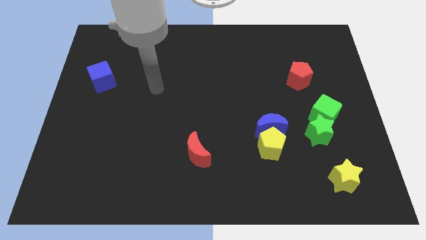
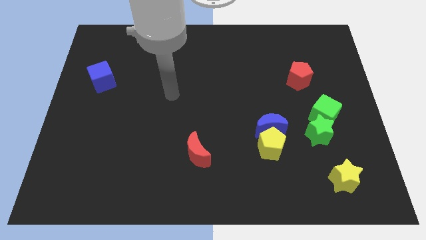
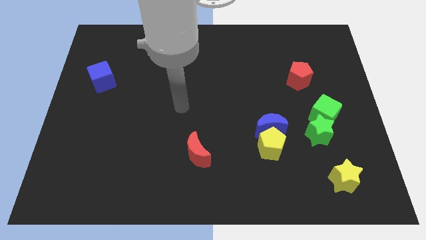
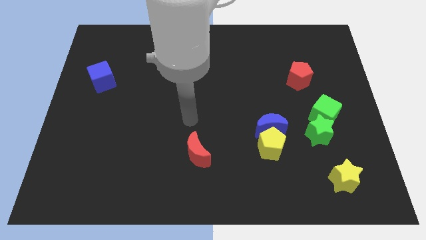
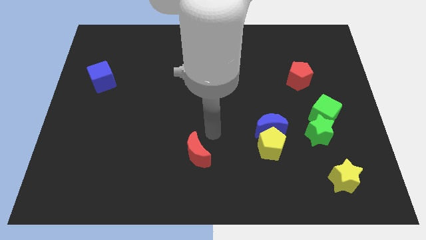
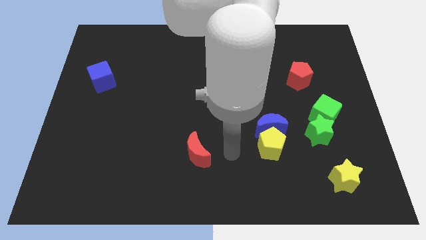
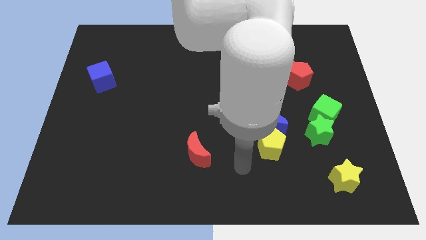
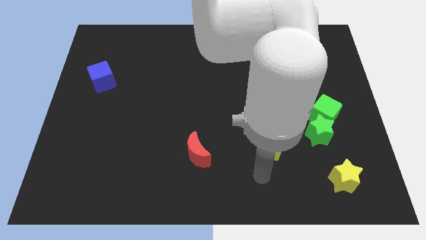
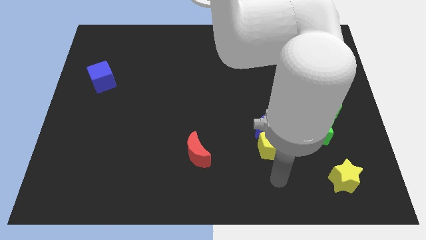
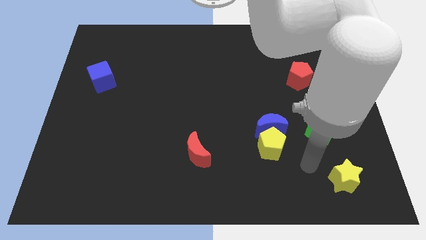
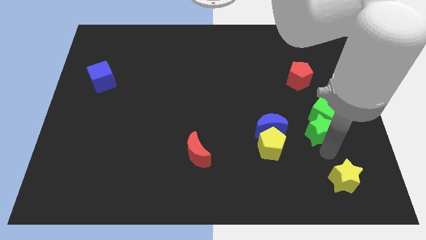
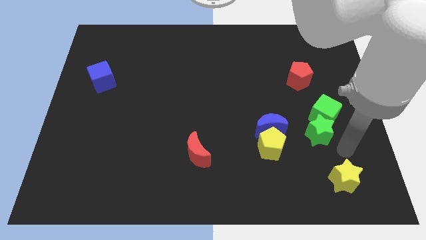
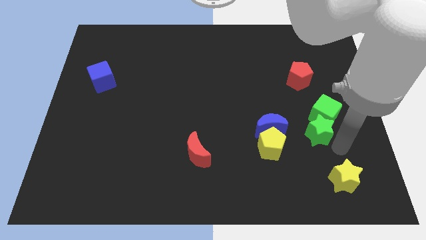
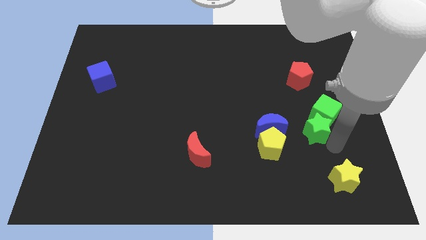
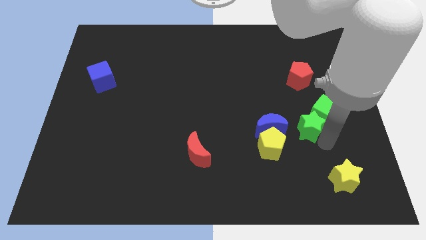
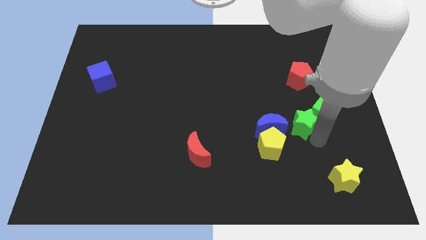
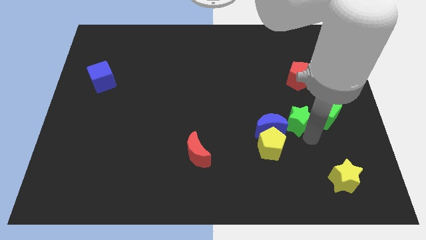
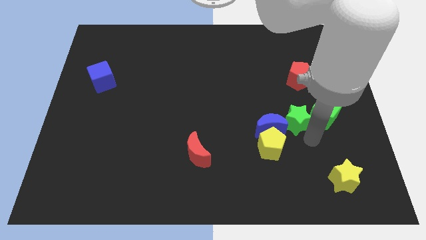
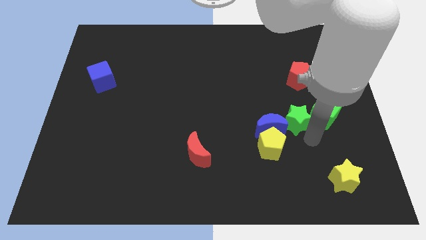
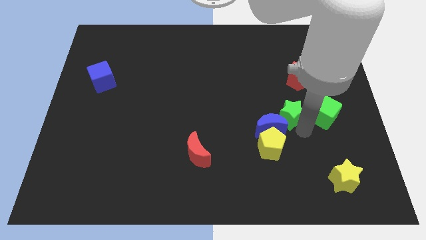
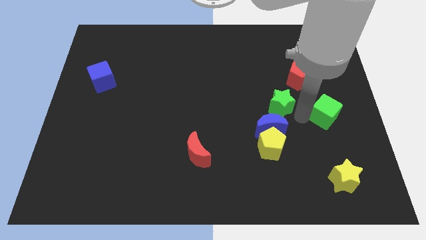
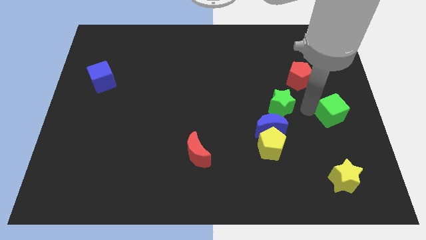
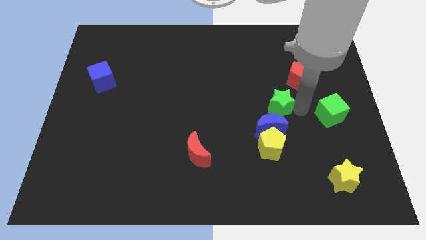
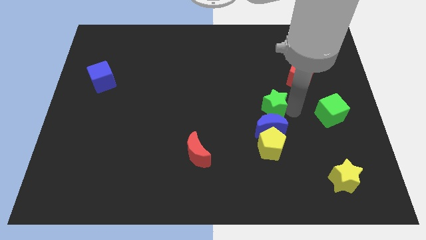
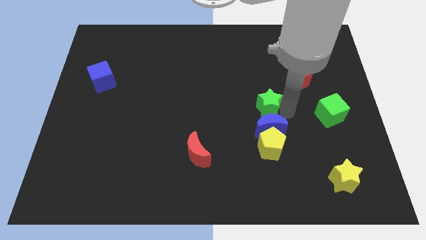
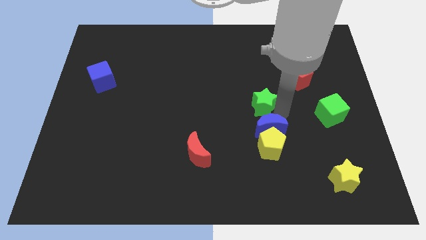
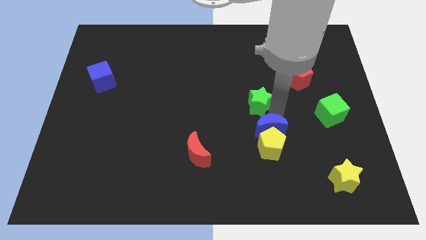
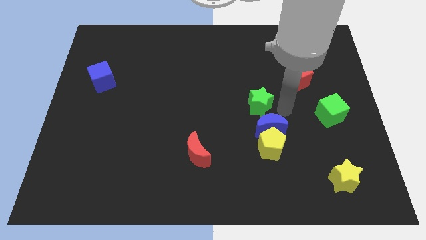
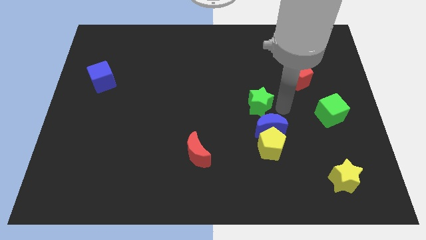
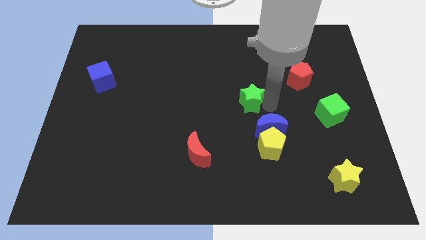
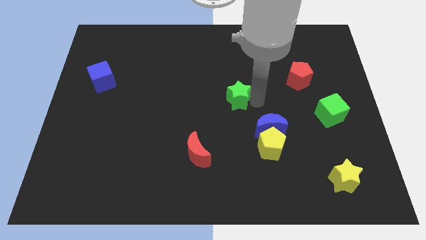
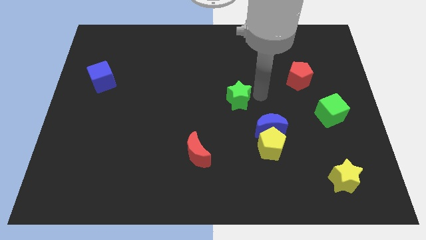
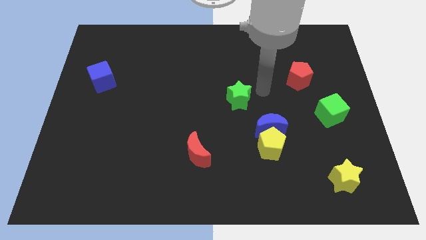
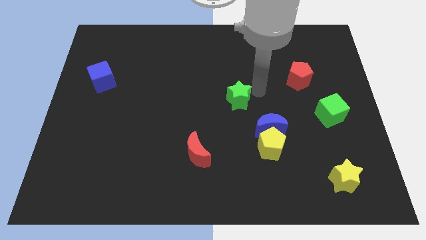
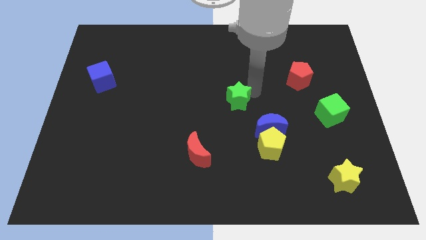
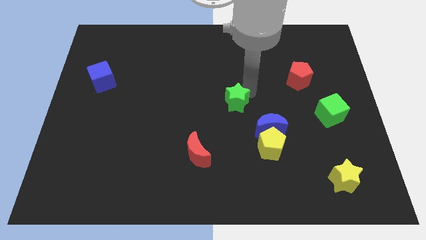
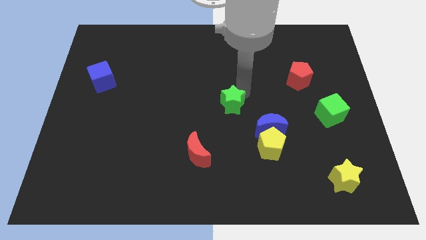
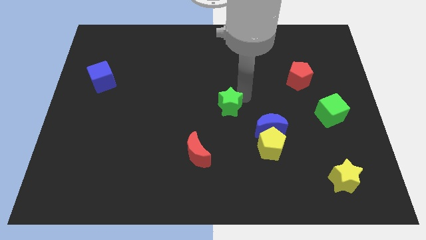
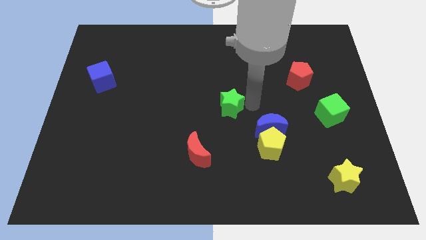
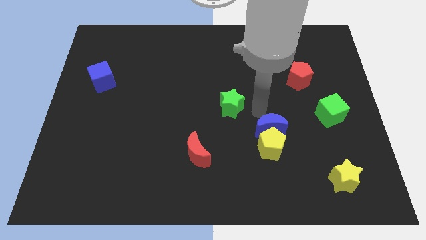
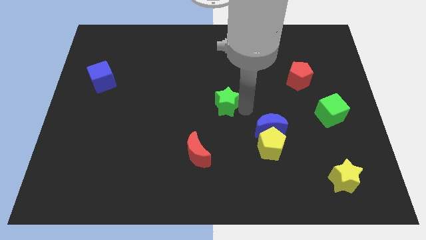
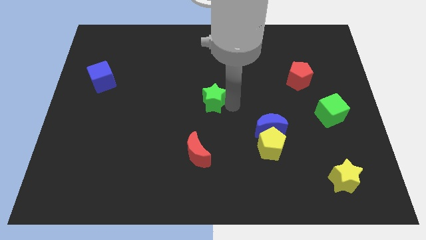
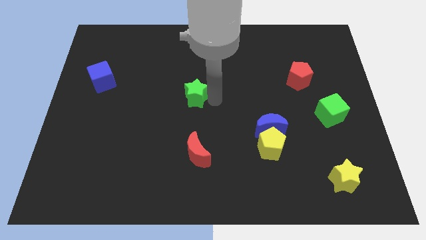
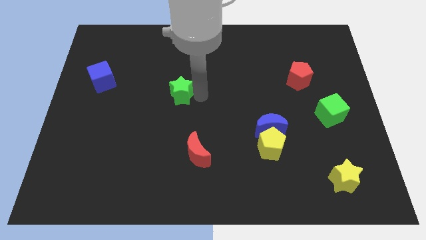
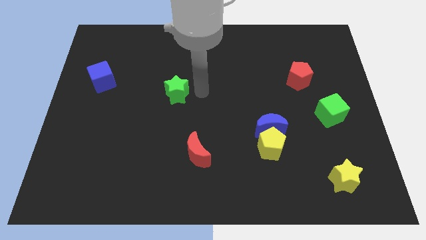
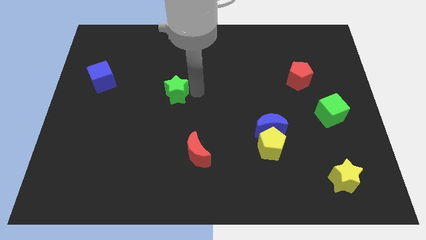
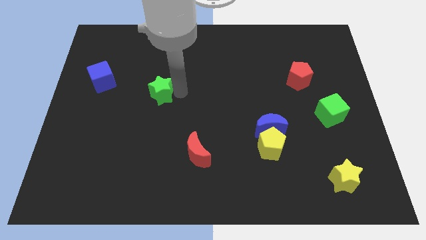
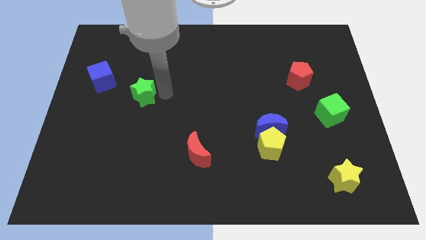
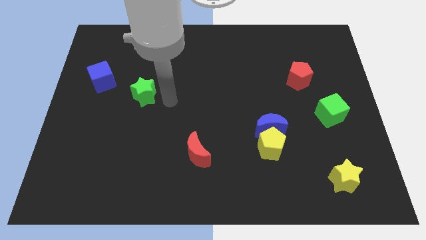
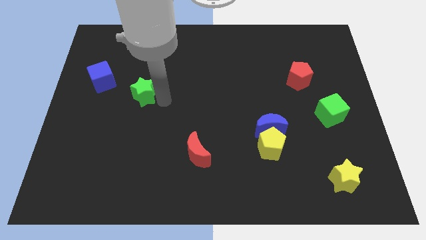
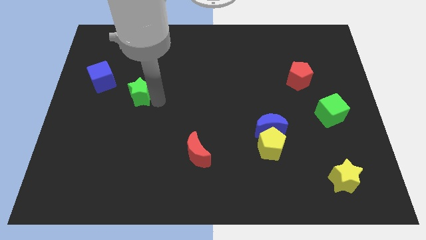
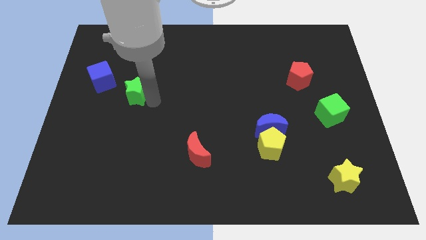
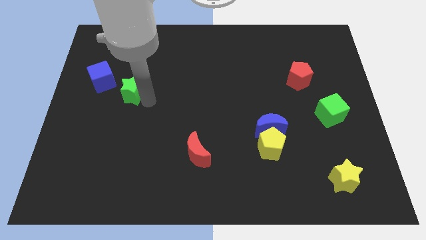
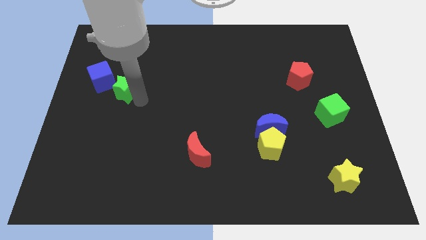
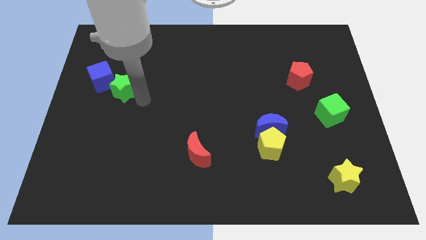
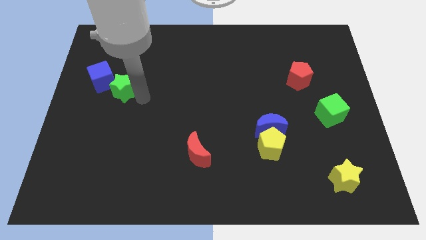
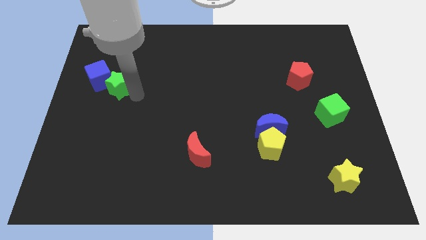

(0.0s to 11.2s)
push the green star to the blue cube

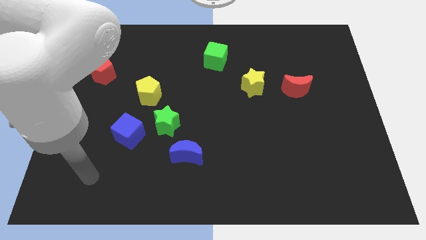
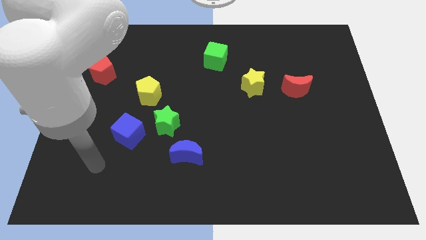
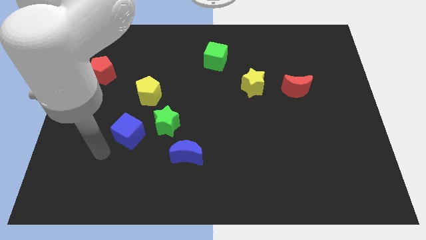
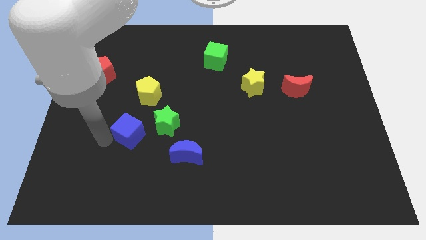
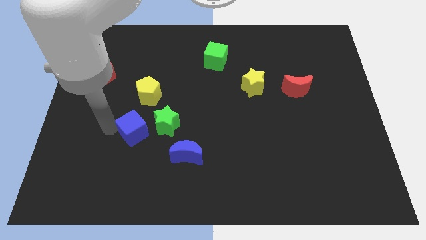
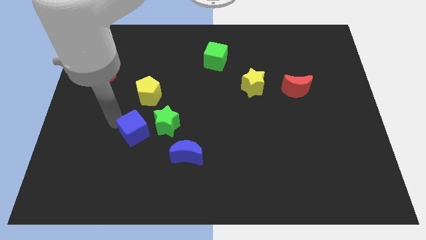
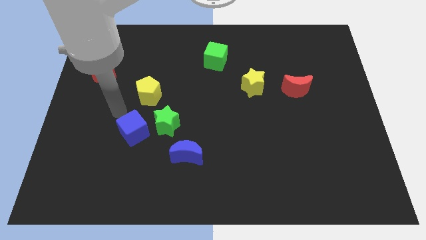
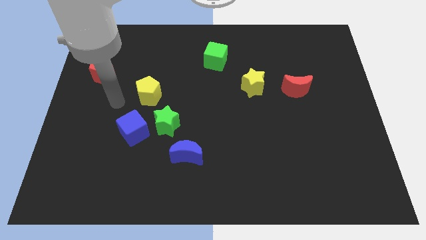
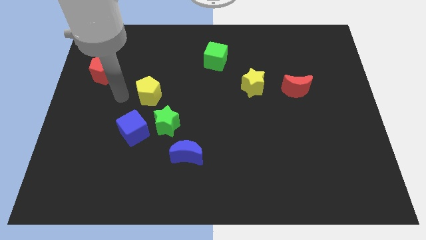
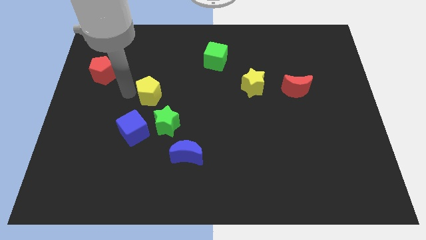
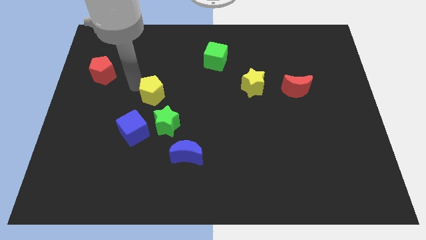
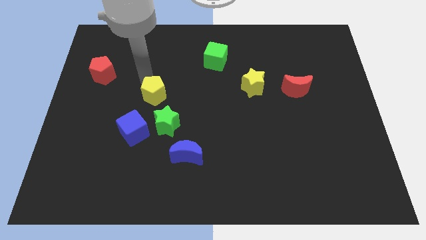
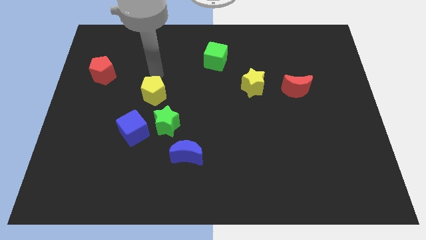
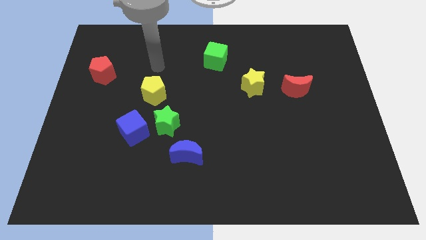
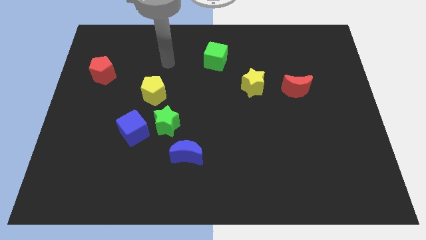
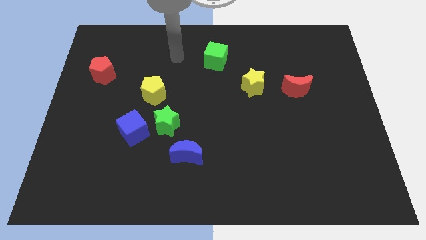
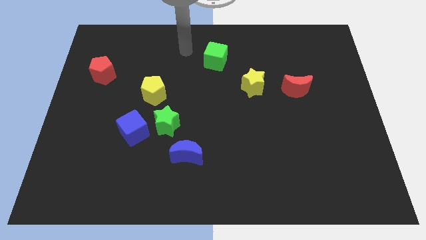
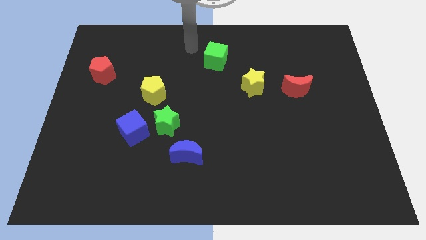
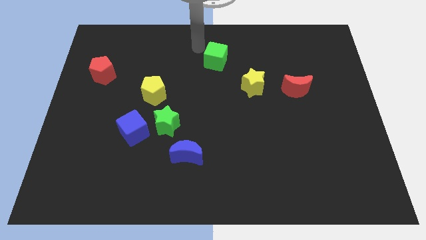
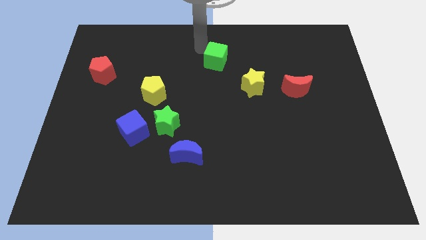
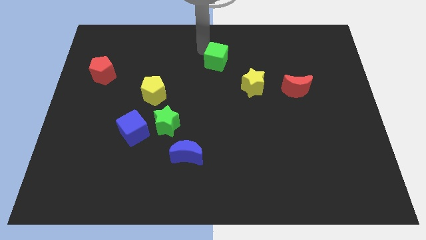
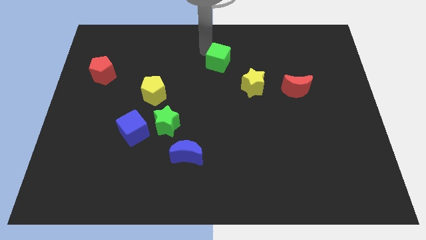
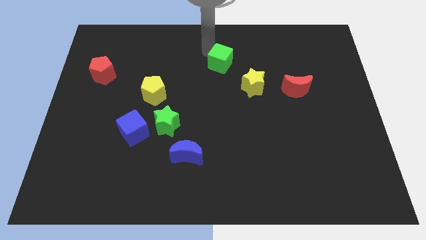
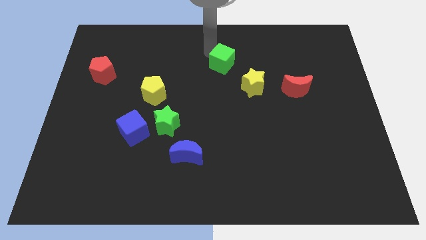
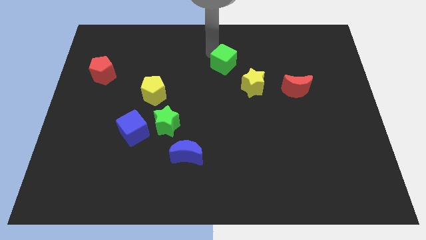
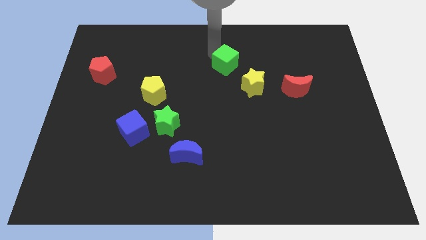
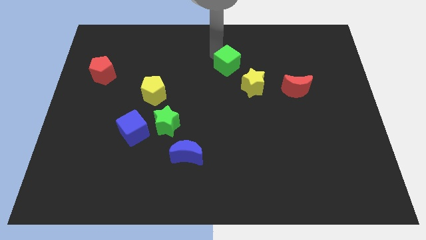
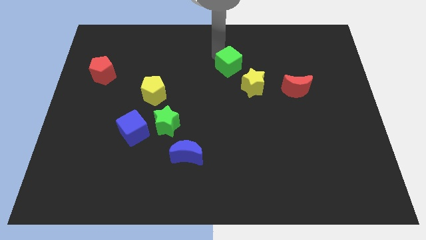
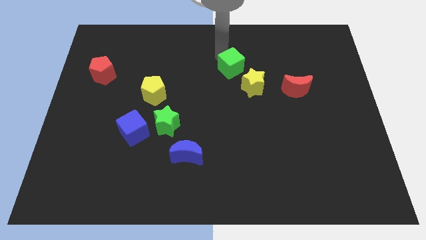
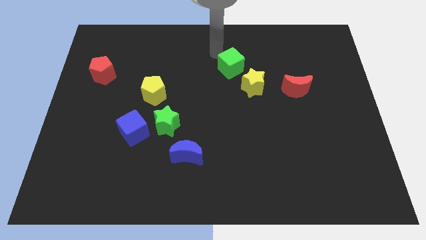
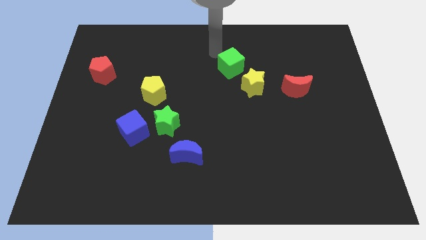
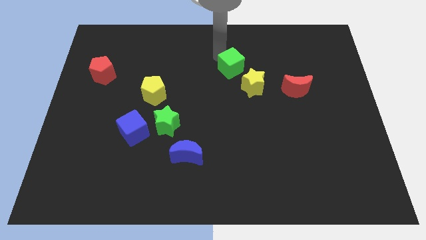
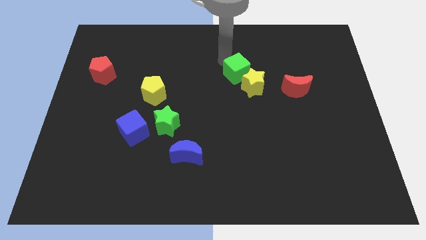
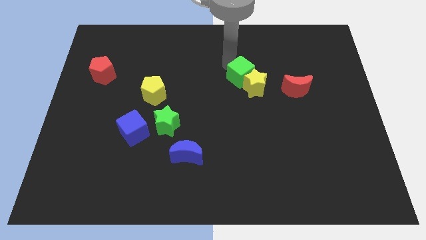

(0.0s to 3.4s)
move the green cube next to the yellow star
